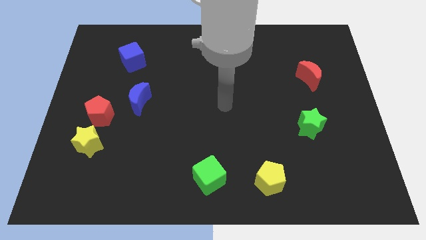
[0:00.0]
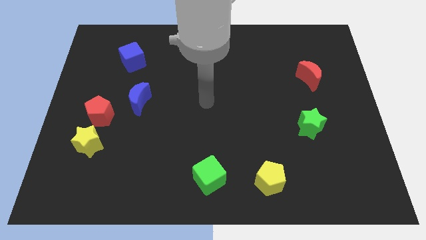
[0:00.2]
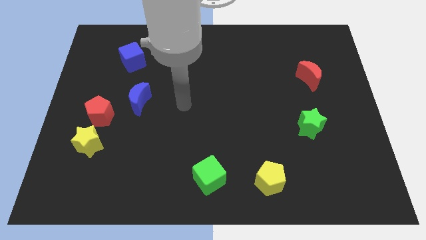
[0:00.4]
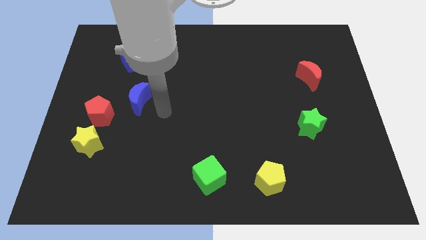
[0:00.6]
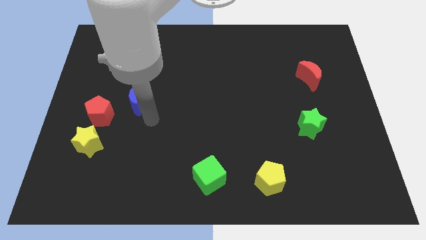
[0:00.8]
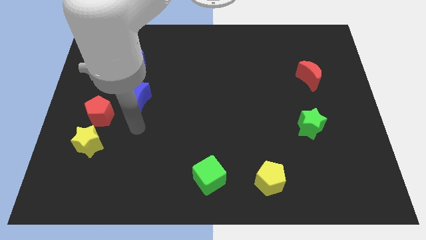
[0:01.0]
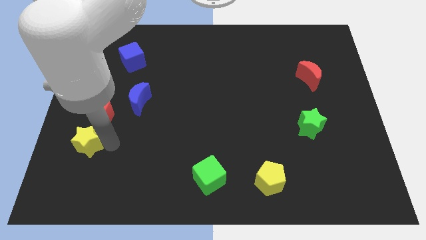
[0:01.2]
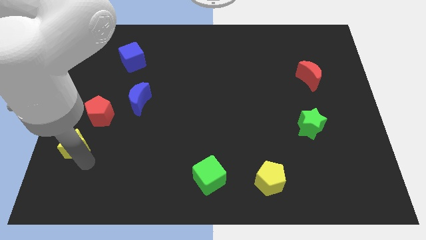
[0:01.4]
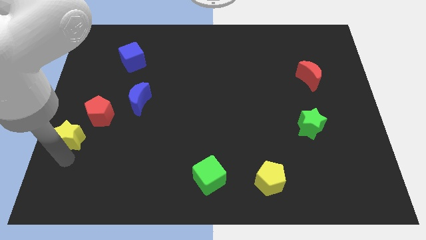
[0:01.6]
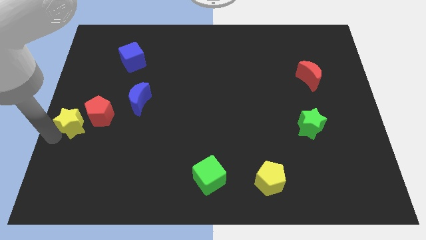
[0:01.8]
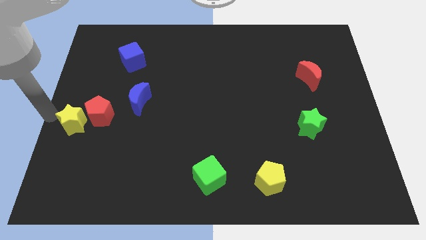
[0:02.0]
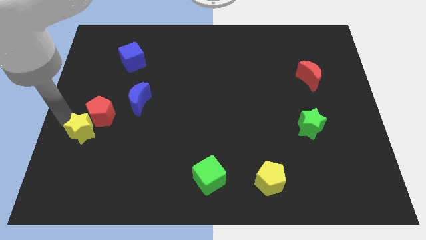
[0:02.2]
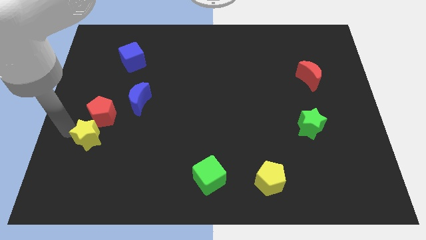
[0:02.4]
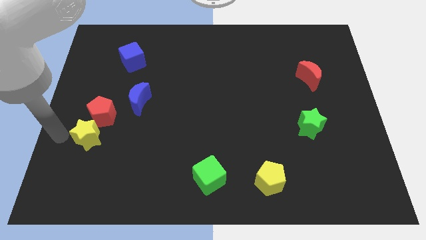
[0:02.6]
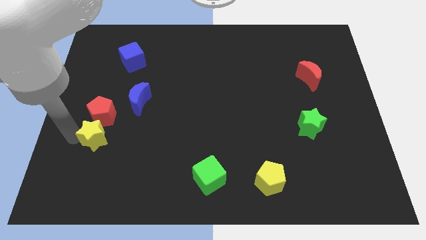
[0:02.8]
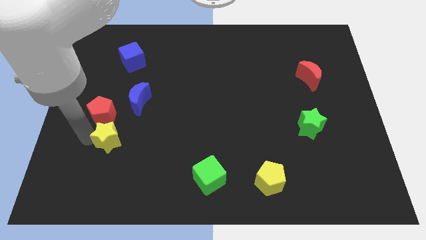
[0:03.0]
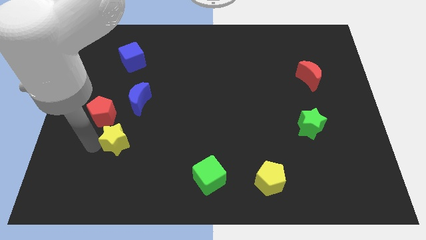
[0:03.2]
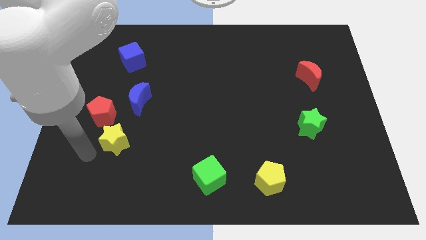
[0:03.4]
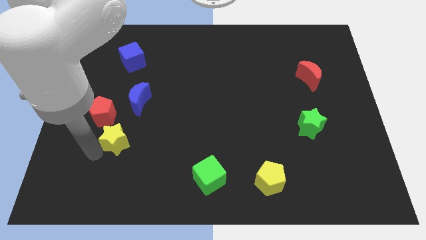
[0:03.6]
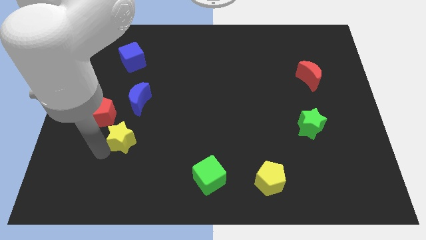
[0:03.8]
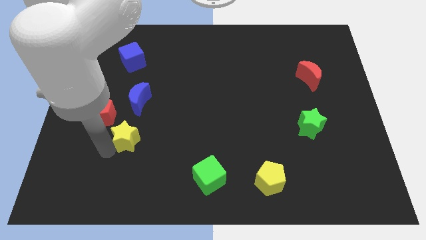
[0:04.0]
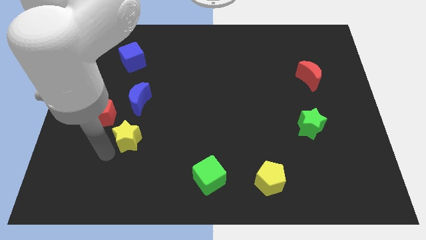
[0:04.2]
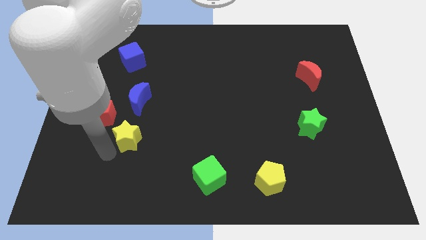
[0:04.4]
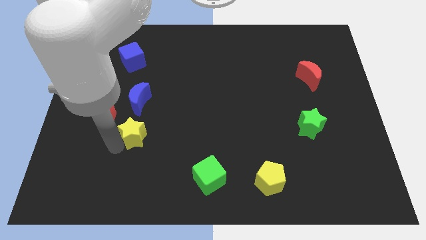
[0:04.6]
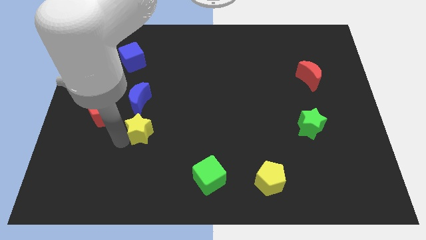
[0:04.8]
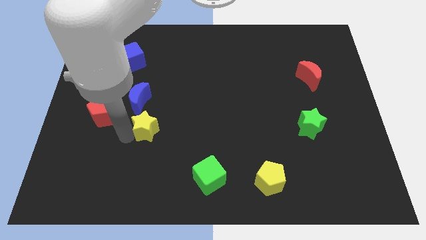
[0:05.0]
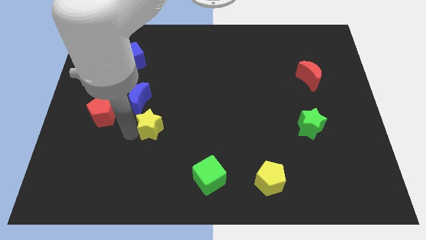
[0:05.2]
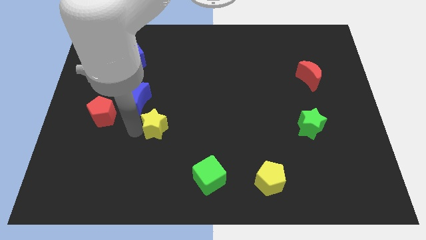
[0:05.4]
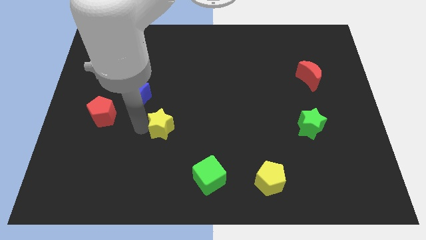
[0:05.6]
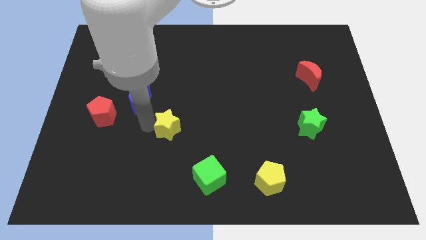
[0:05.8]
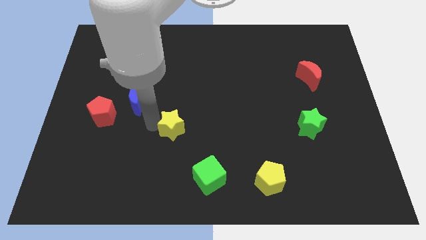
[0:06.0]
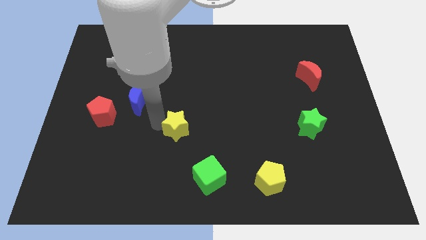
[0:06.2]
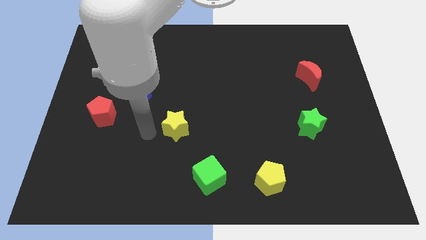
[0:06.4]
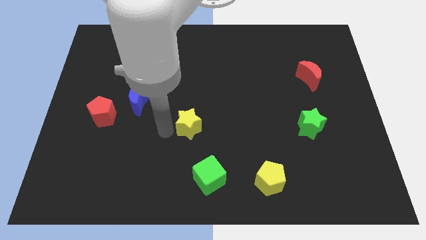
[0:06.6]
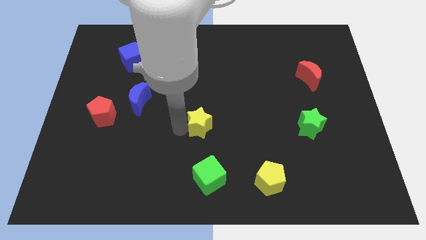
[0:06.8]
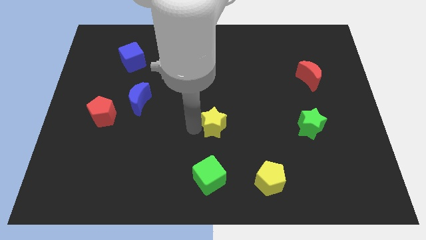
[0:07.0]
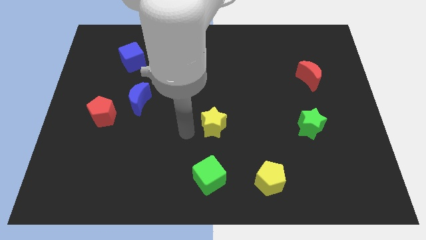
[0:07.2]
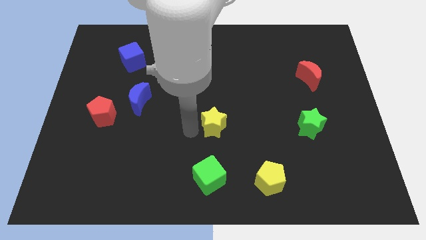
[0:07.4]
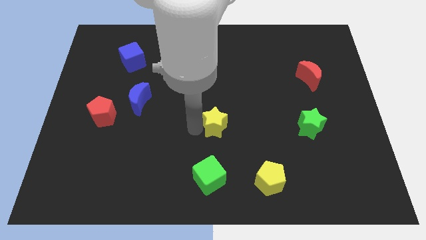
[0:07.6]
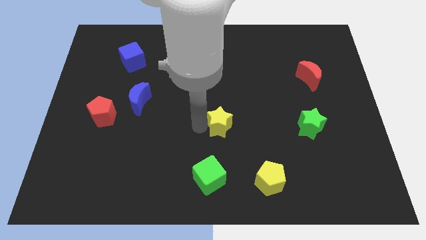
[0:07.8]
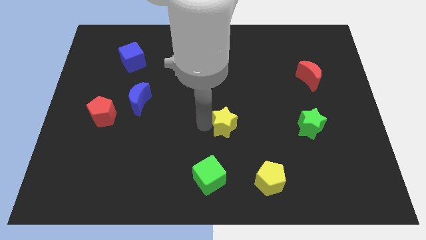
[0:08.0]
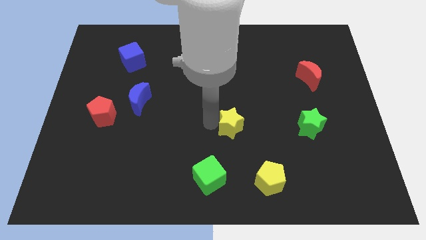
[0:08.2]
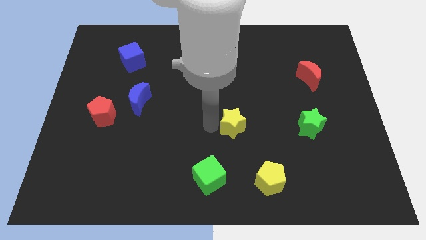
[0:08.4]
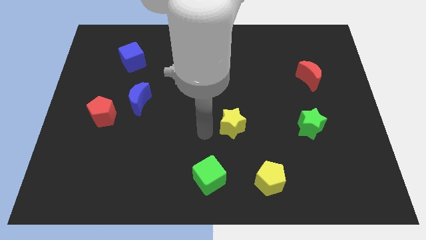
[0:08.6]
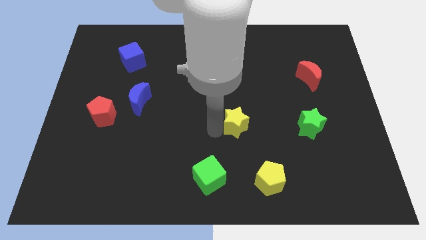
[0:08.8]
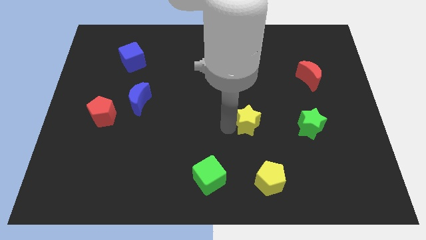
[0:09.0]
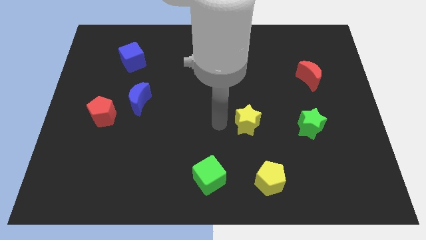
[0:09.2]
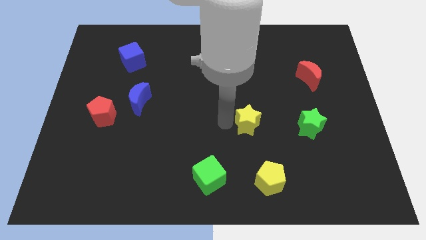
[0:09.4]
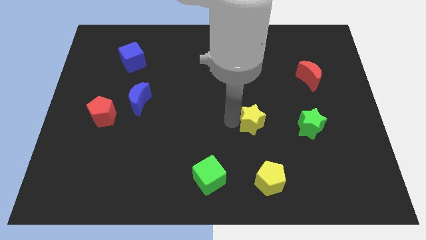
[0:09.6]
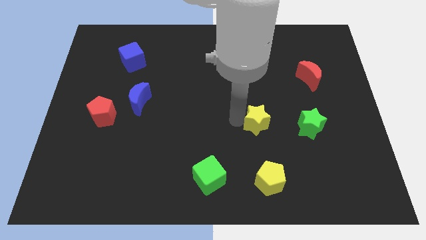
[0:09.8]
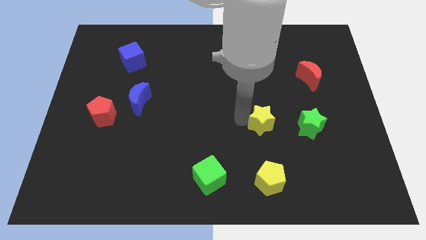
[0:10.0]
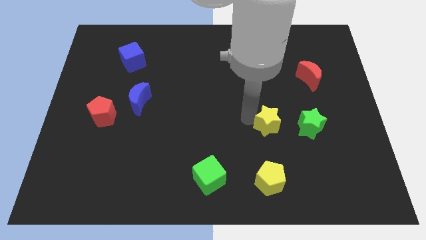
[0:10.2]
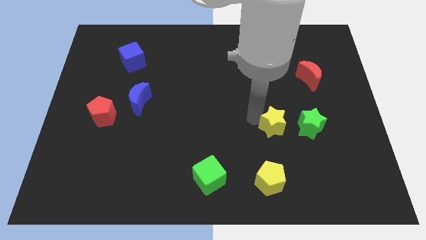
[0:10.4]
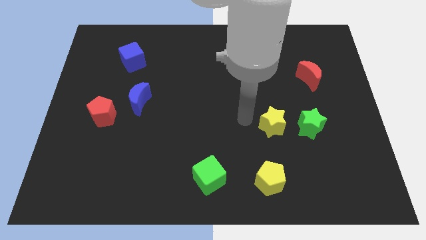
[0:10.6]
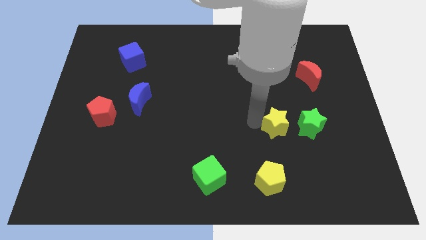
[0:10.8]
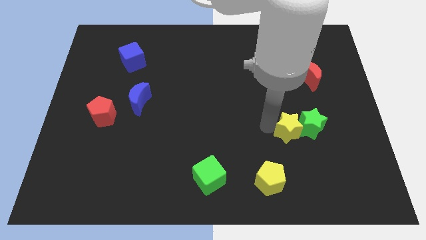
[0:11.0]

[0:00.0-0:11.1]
move the yellow star towards the green star

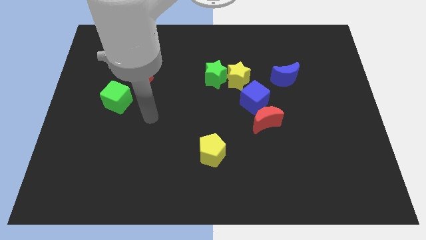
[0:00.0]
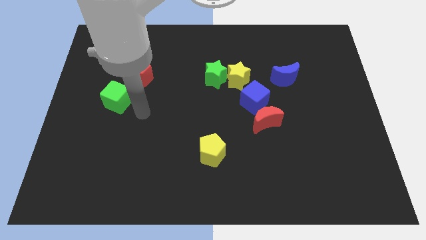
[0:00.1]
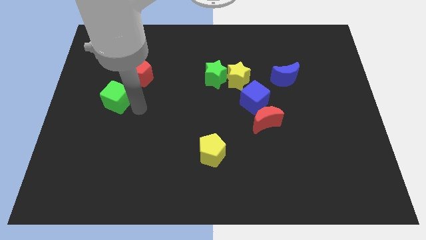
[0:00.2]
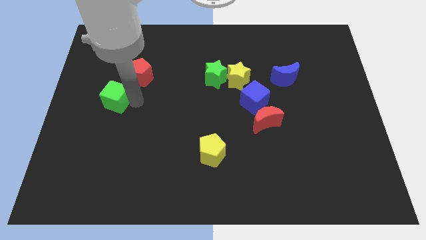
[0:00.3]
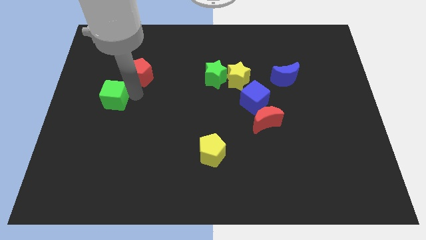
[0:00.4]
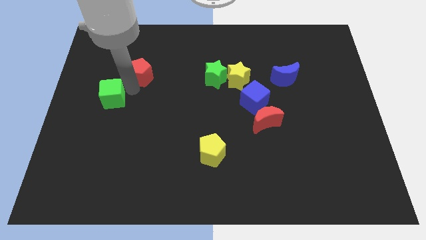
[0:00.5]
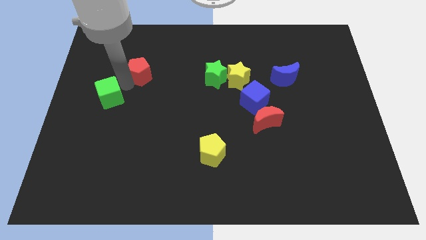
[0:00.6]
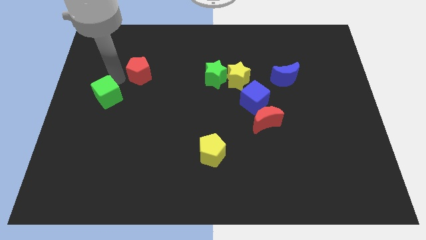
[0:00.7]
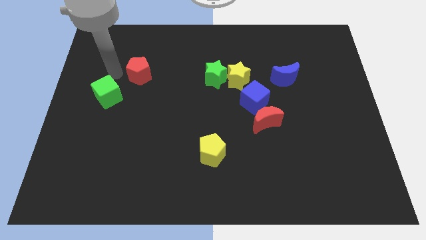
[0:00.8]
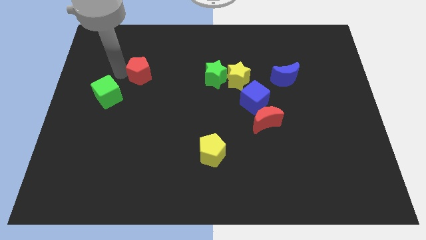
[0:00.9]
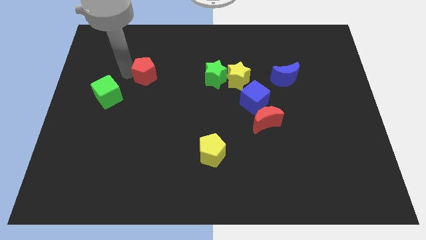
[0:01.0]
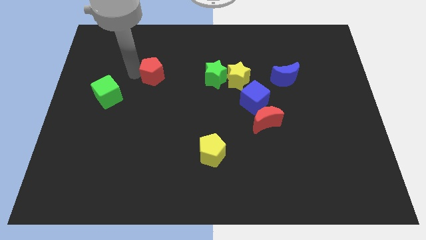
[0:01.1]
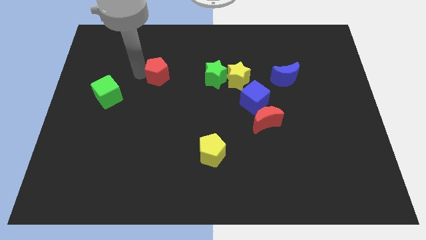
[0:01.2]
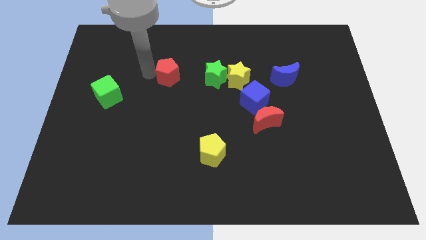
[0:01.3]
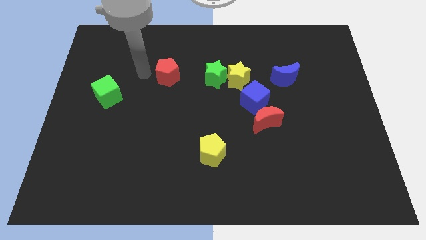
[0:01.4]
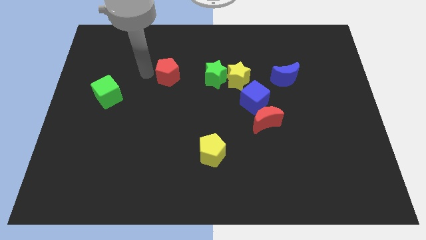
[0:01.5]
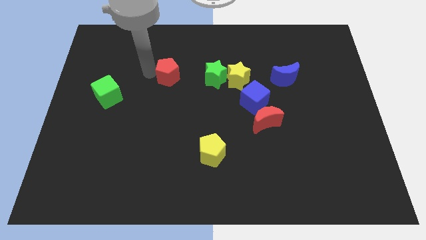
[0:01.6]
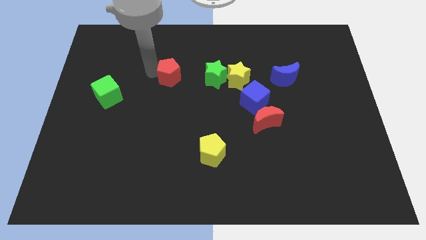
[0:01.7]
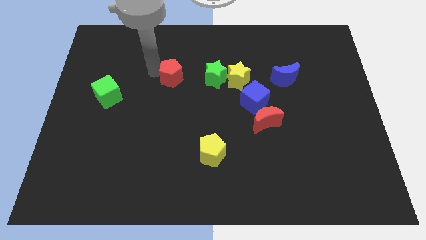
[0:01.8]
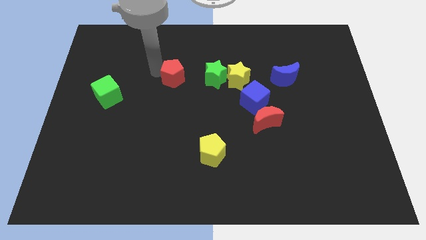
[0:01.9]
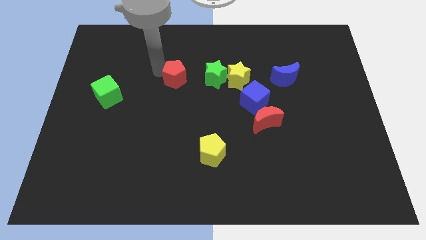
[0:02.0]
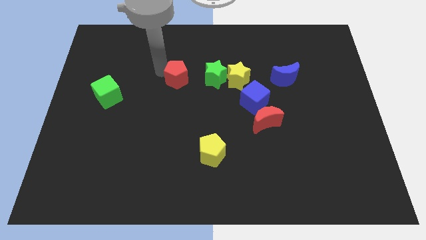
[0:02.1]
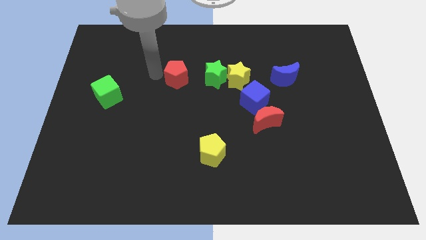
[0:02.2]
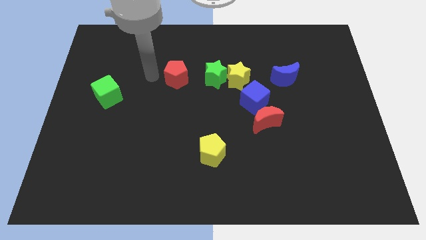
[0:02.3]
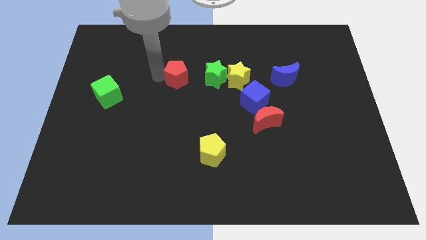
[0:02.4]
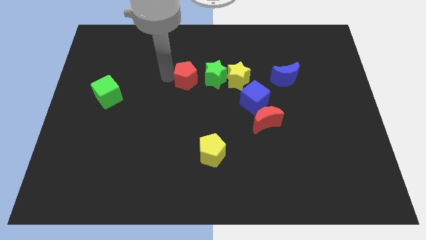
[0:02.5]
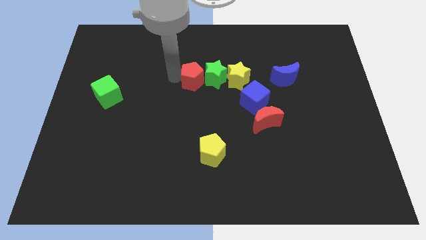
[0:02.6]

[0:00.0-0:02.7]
put the red pentagon towards the green star
